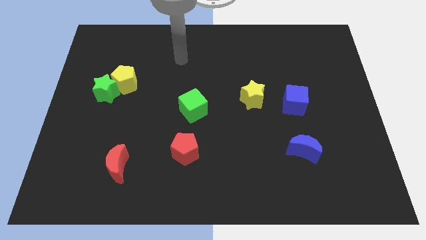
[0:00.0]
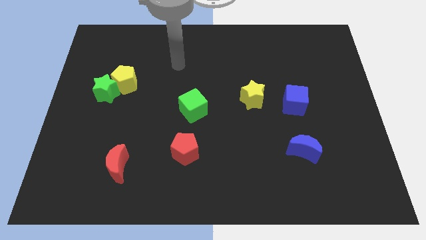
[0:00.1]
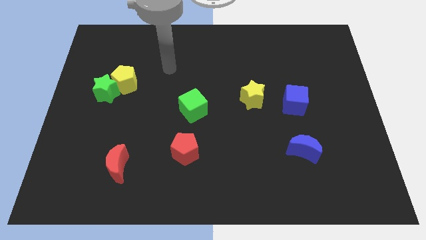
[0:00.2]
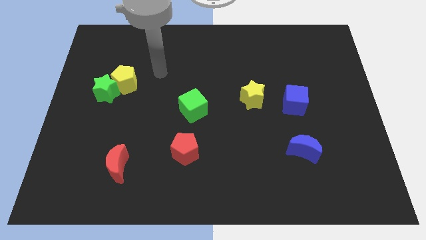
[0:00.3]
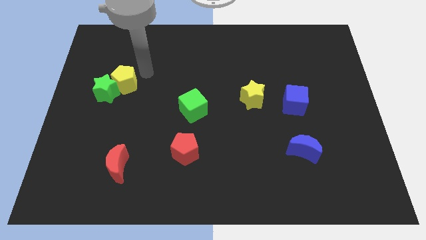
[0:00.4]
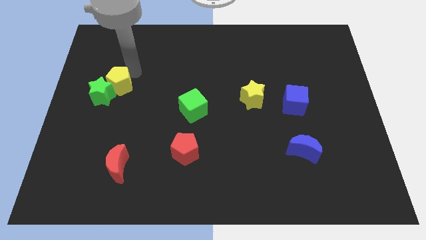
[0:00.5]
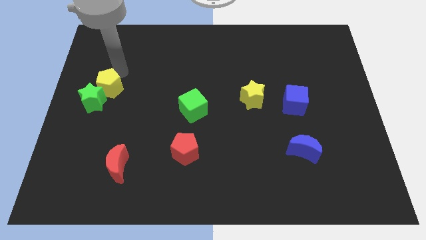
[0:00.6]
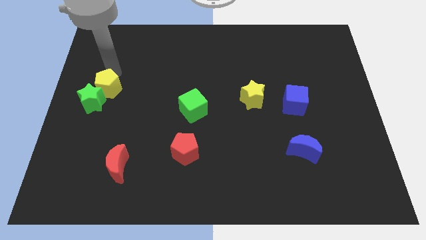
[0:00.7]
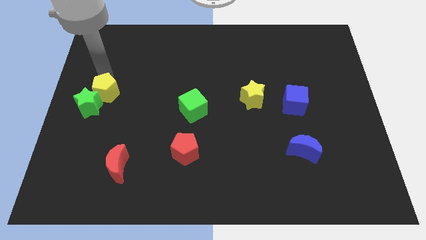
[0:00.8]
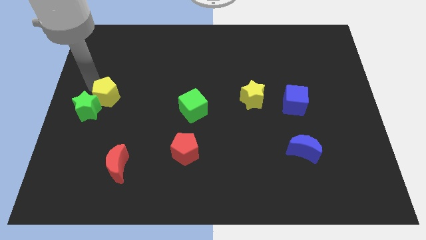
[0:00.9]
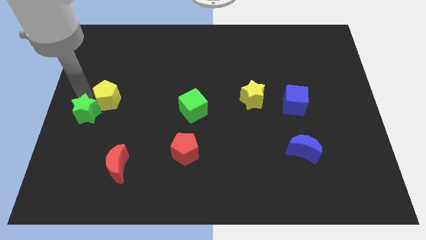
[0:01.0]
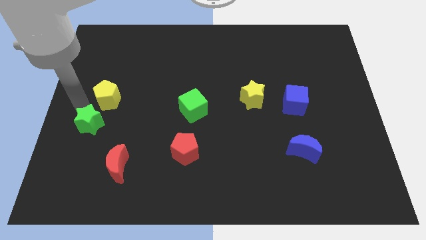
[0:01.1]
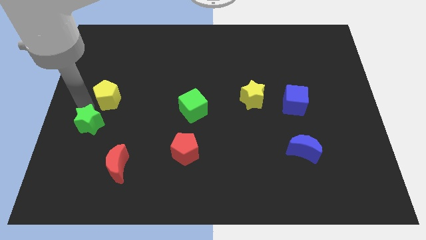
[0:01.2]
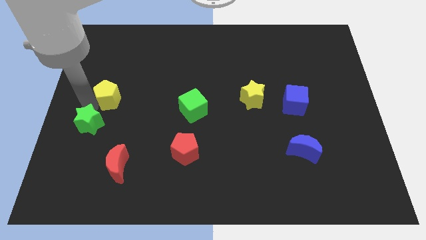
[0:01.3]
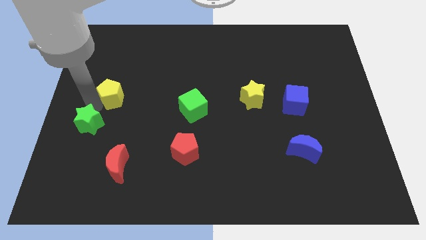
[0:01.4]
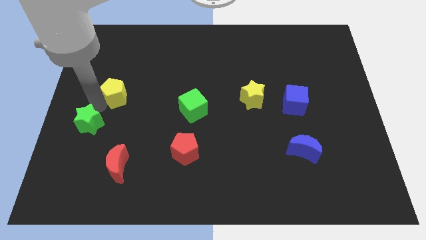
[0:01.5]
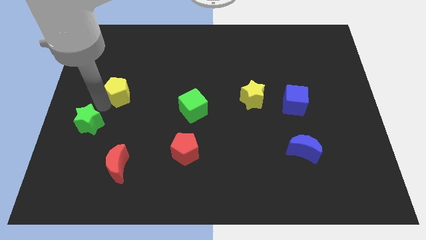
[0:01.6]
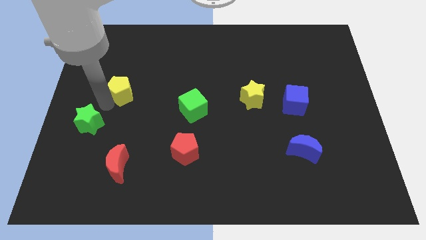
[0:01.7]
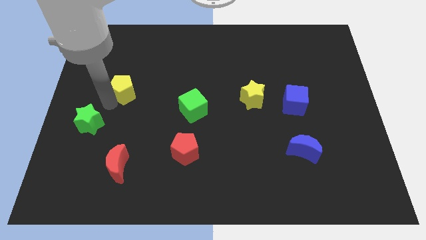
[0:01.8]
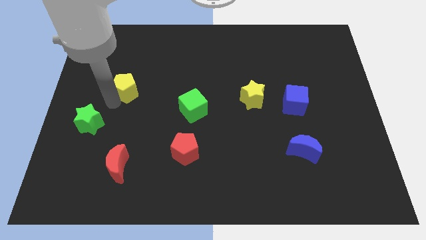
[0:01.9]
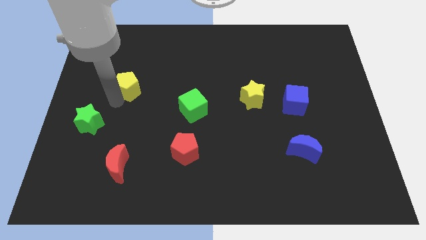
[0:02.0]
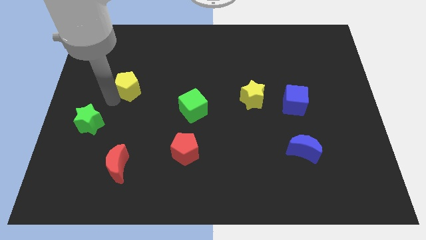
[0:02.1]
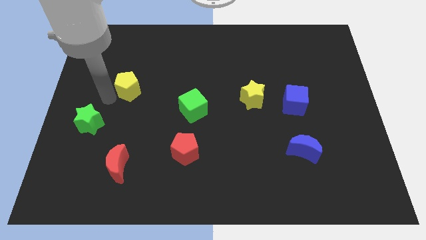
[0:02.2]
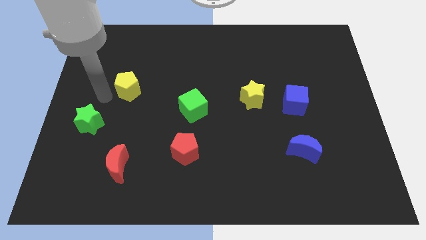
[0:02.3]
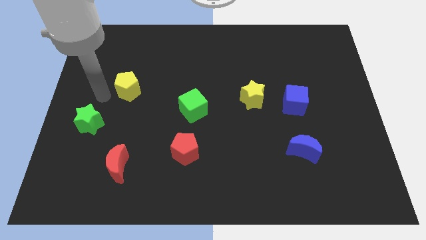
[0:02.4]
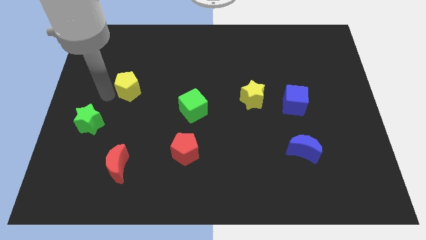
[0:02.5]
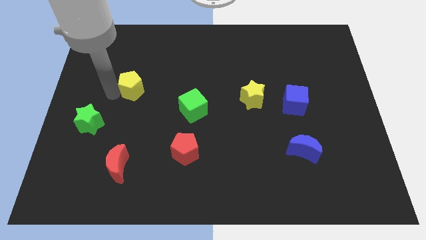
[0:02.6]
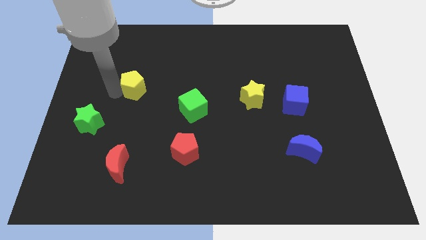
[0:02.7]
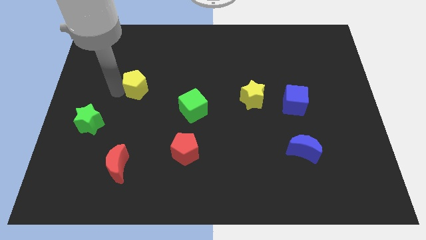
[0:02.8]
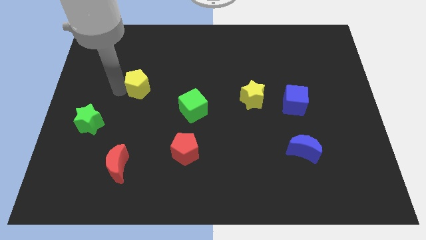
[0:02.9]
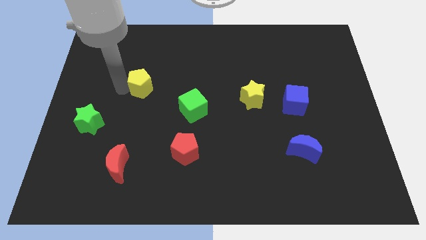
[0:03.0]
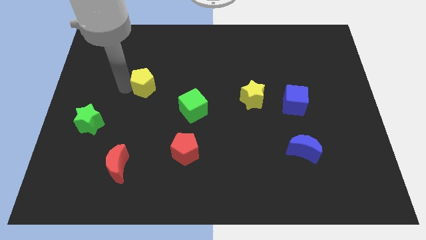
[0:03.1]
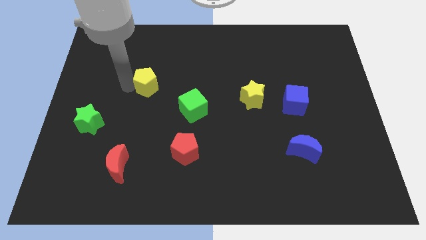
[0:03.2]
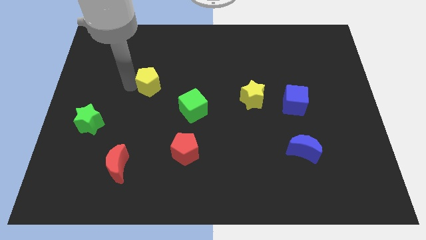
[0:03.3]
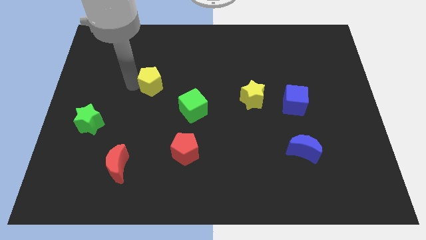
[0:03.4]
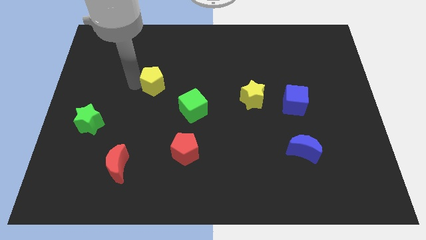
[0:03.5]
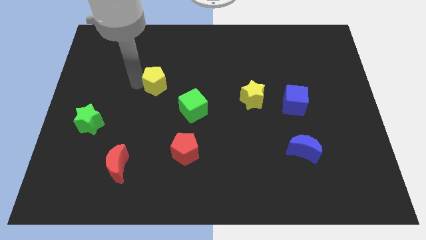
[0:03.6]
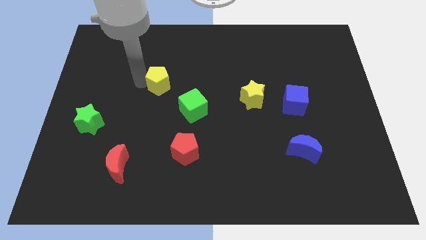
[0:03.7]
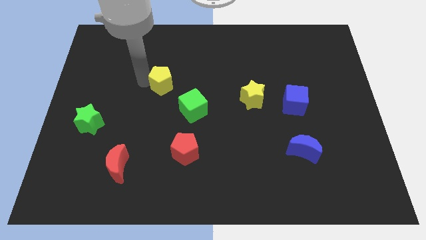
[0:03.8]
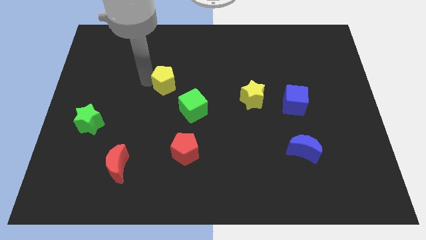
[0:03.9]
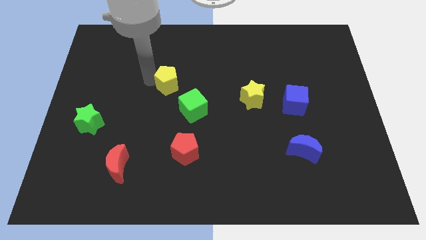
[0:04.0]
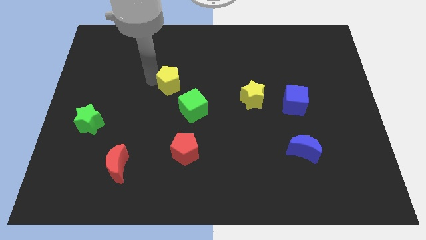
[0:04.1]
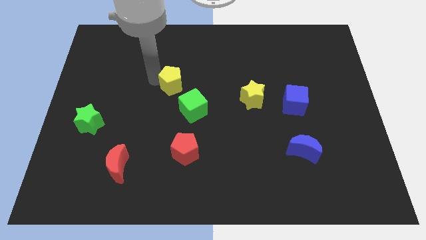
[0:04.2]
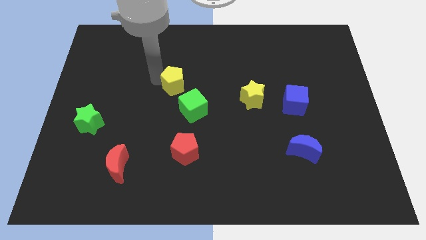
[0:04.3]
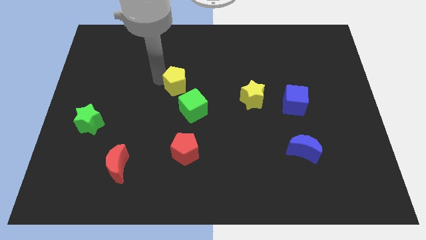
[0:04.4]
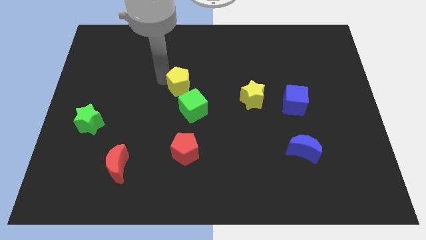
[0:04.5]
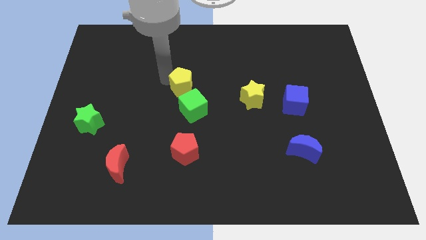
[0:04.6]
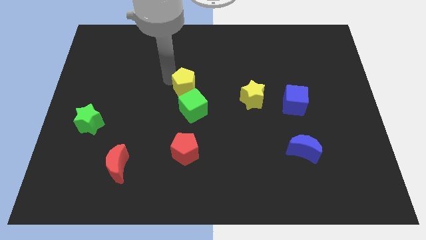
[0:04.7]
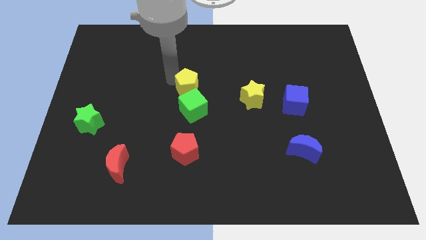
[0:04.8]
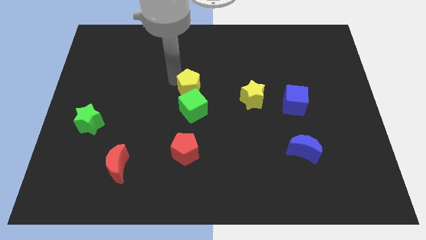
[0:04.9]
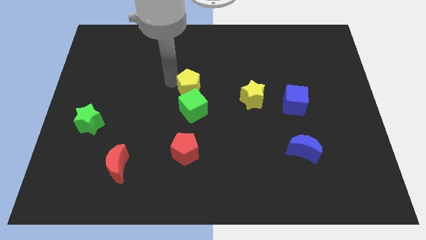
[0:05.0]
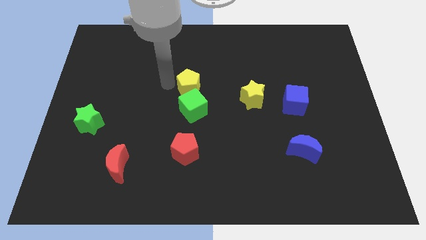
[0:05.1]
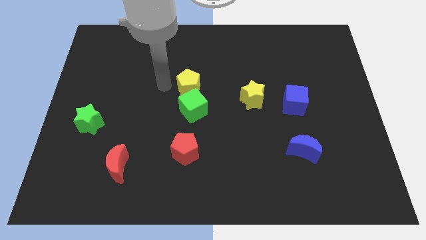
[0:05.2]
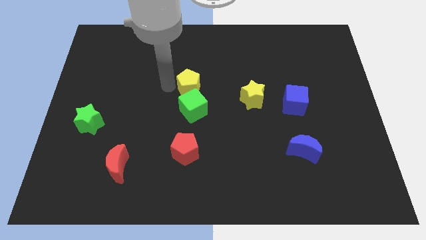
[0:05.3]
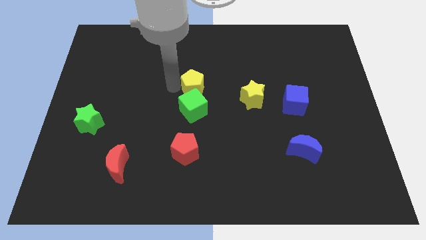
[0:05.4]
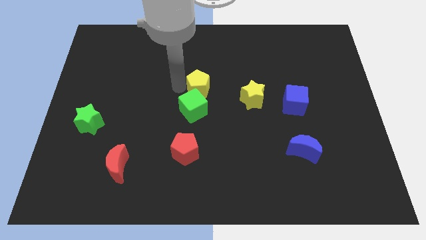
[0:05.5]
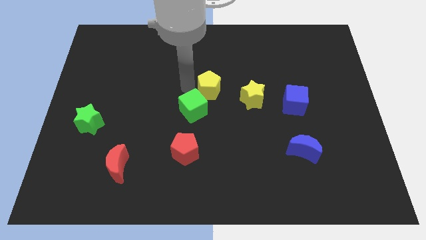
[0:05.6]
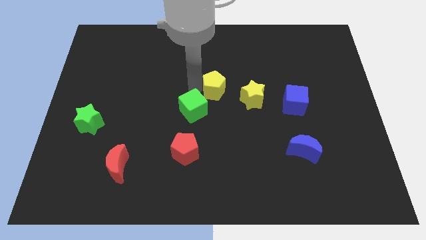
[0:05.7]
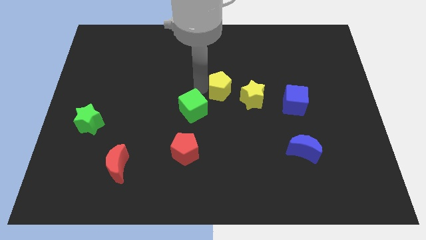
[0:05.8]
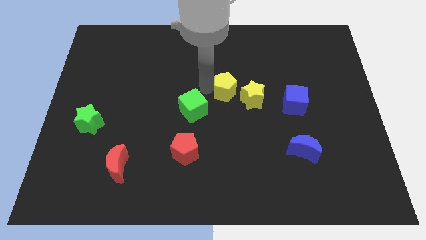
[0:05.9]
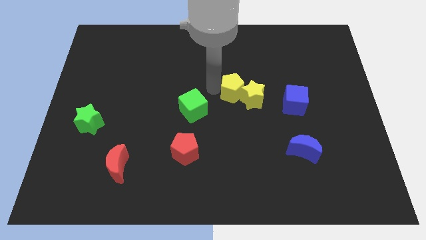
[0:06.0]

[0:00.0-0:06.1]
push the yellow pentagon close to the yellow star

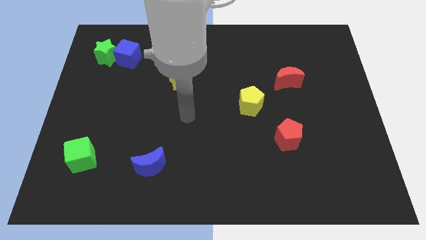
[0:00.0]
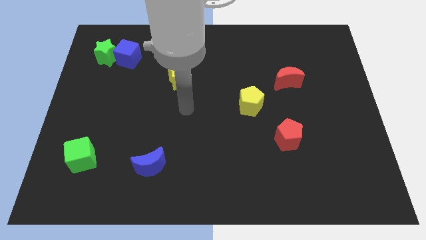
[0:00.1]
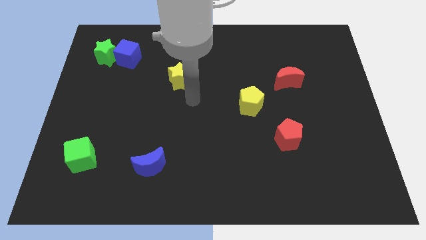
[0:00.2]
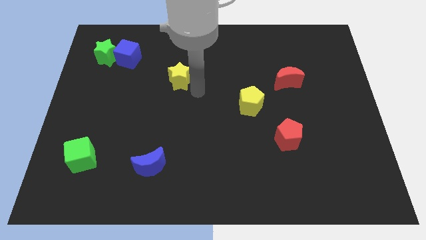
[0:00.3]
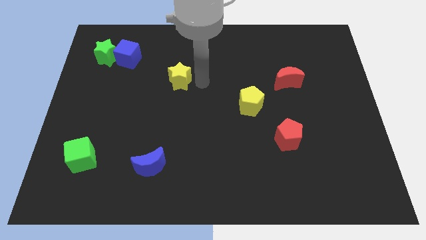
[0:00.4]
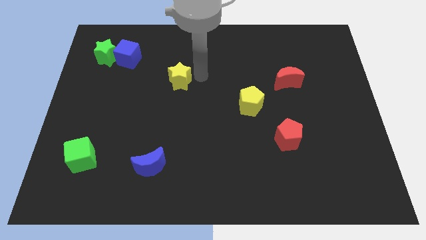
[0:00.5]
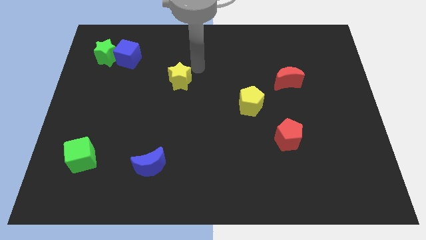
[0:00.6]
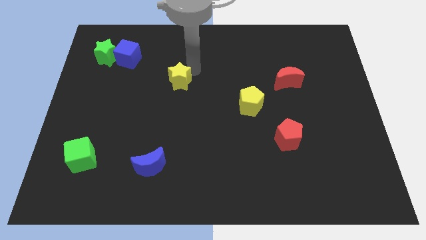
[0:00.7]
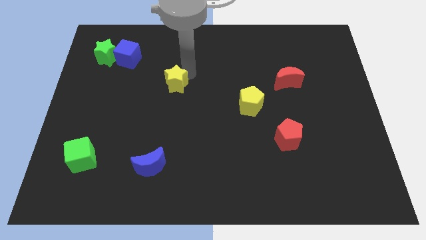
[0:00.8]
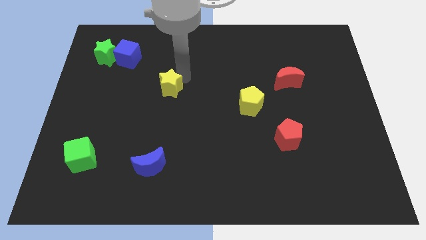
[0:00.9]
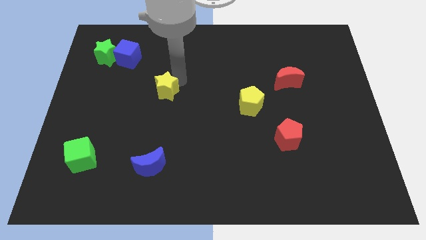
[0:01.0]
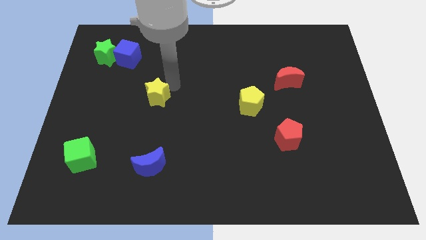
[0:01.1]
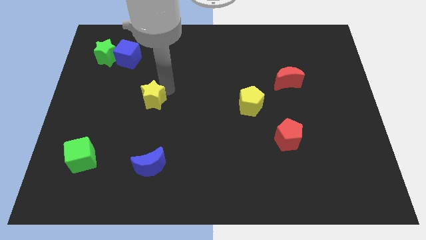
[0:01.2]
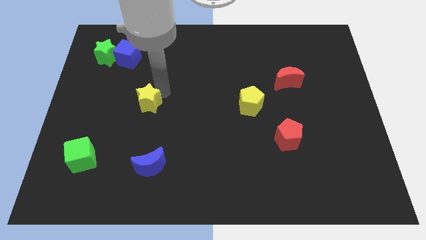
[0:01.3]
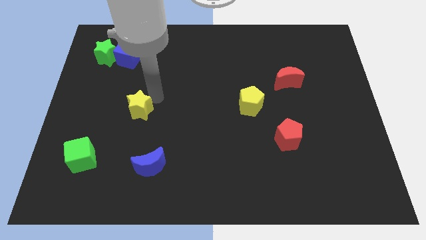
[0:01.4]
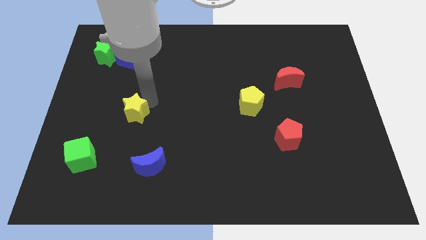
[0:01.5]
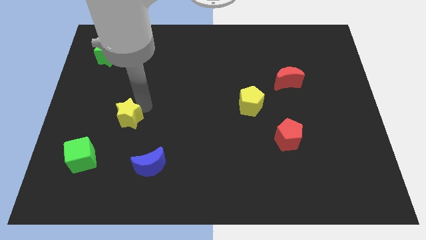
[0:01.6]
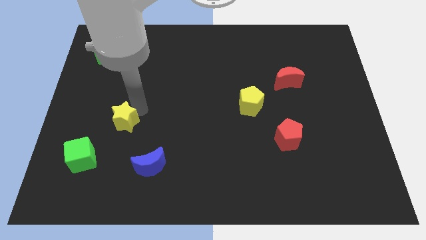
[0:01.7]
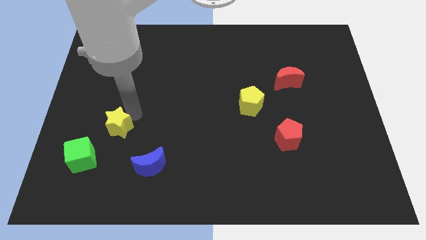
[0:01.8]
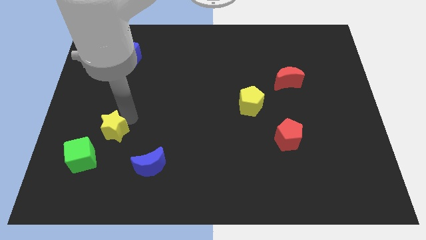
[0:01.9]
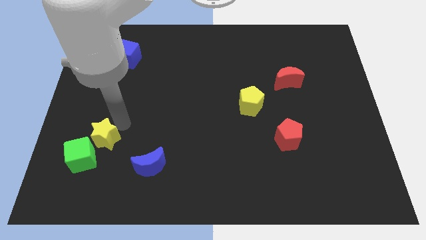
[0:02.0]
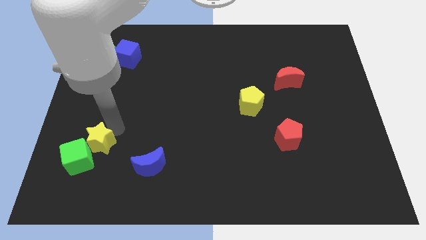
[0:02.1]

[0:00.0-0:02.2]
push the yellow star next to the green cube
